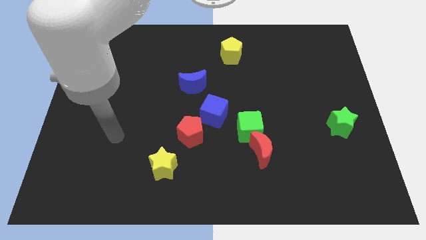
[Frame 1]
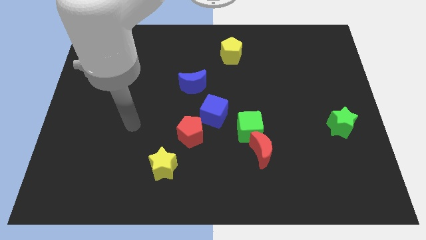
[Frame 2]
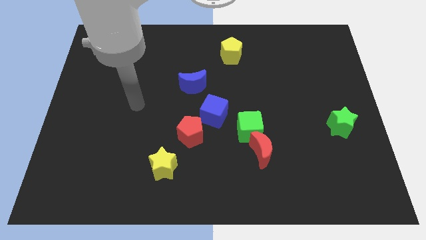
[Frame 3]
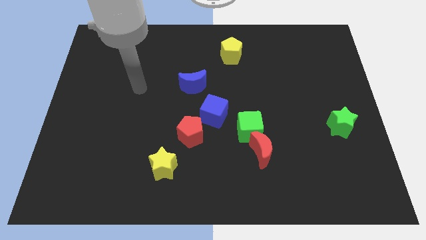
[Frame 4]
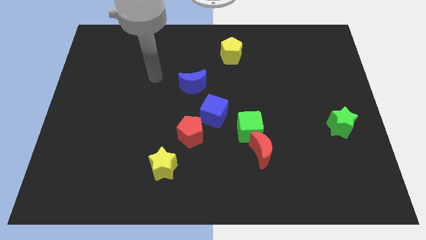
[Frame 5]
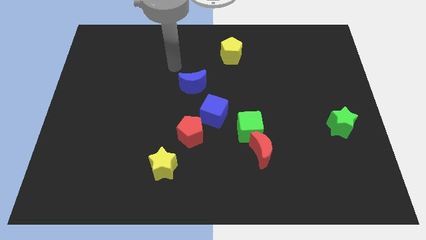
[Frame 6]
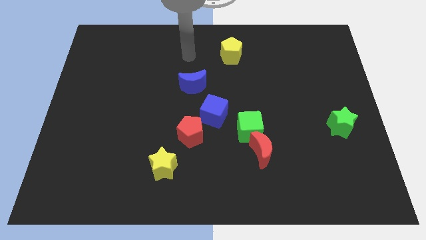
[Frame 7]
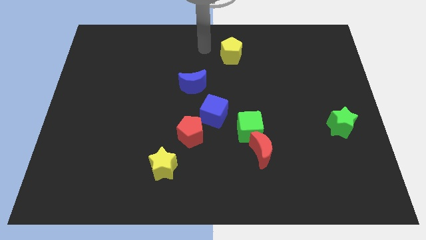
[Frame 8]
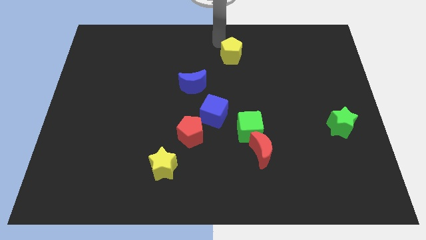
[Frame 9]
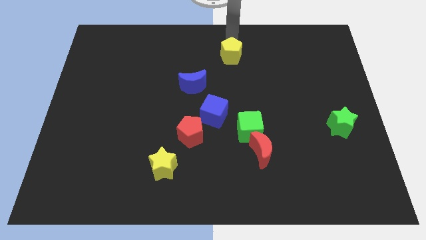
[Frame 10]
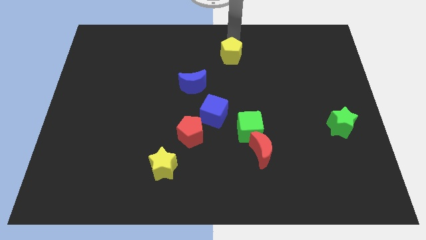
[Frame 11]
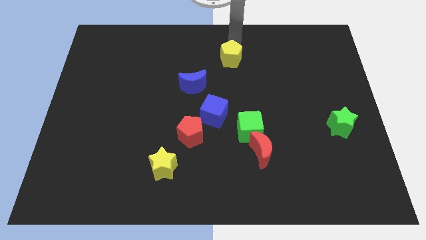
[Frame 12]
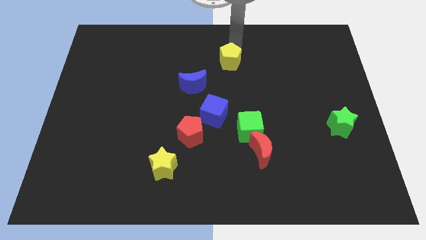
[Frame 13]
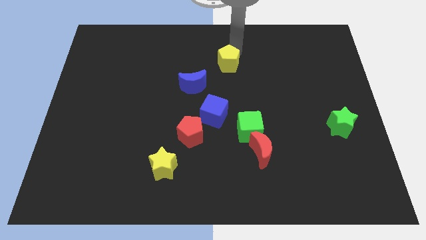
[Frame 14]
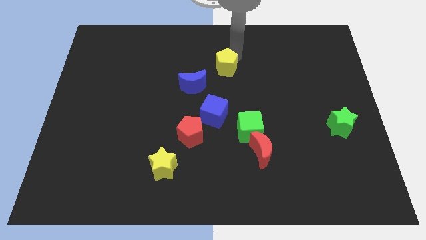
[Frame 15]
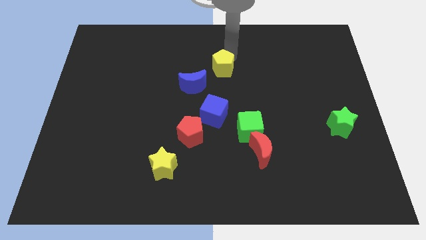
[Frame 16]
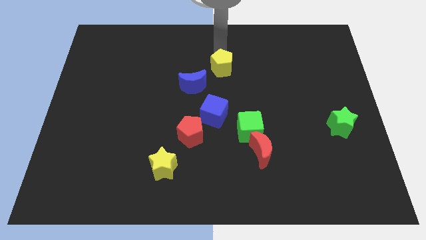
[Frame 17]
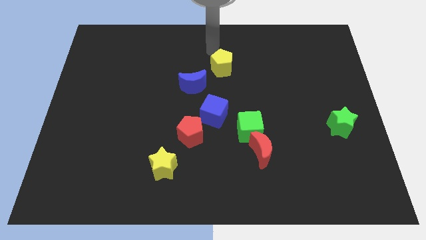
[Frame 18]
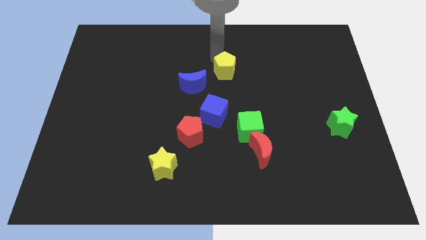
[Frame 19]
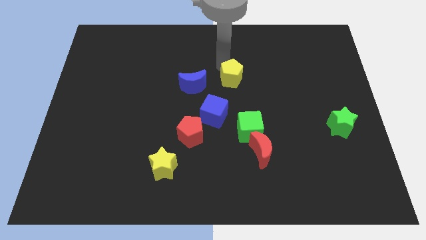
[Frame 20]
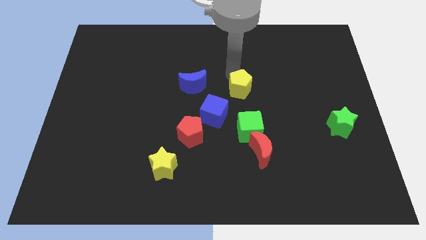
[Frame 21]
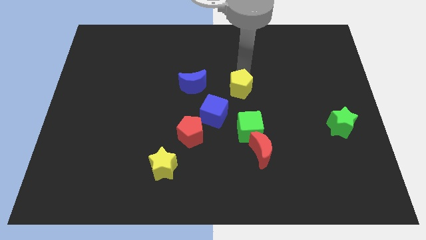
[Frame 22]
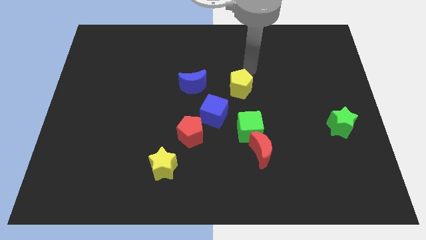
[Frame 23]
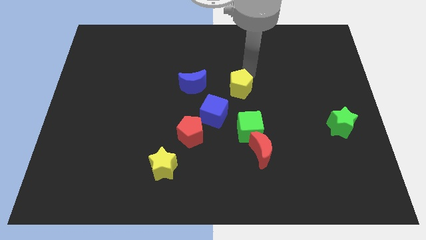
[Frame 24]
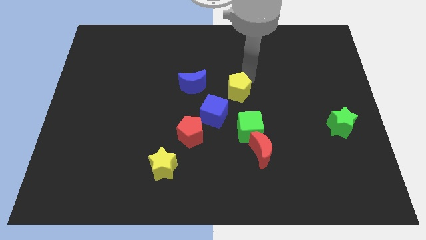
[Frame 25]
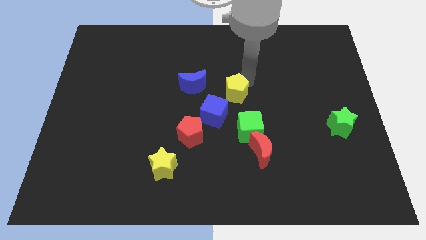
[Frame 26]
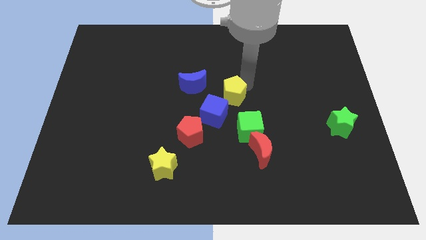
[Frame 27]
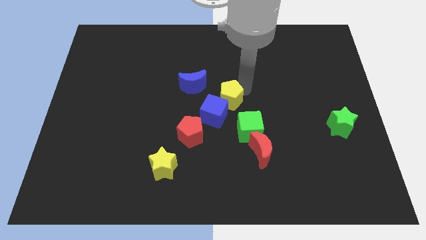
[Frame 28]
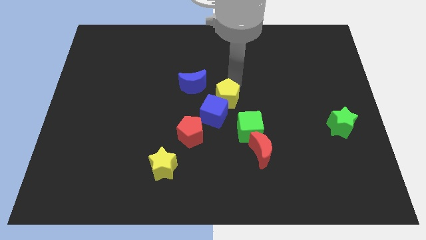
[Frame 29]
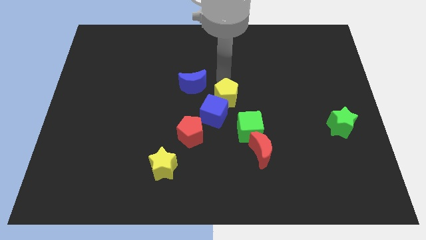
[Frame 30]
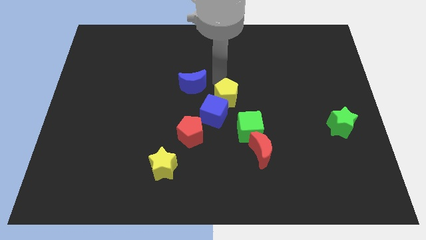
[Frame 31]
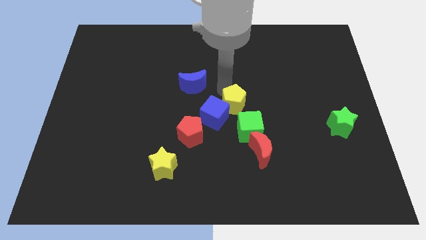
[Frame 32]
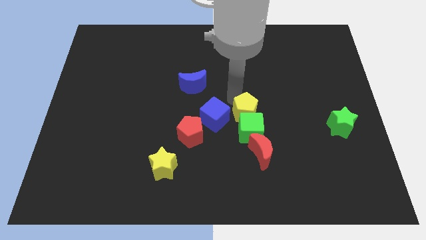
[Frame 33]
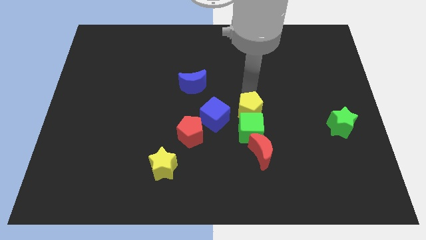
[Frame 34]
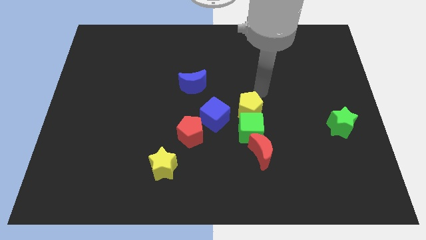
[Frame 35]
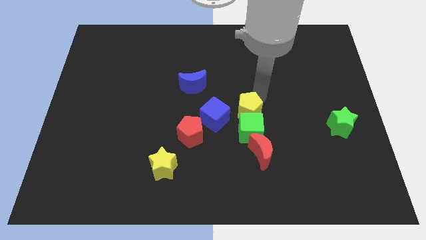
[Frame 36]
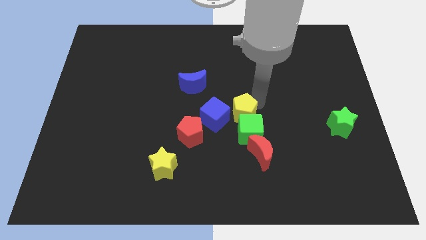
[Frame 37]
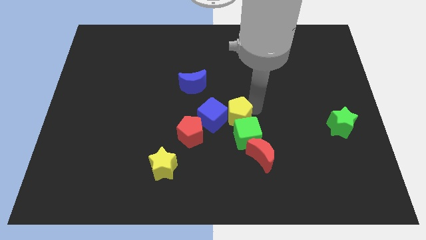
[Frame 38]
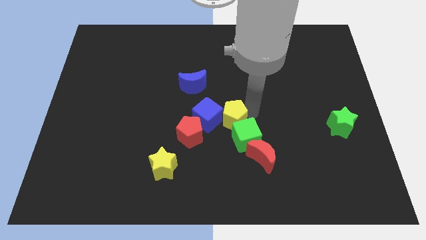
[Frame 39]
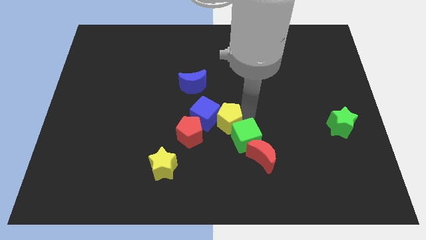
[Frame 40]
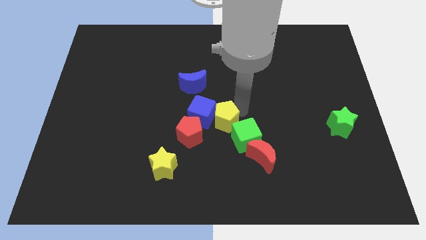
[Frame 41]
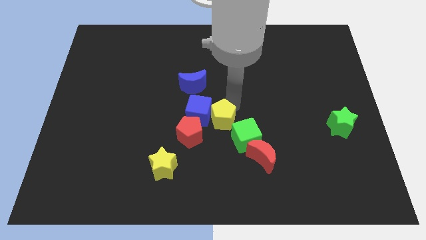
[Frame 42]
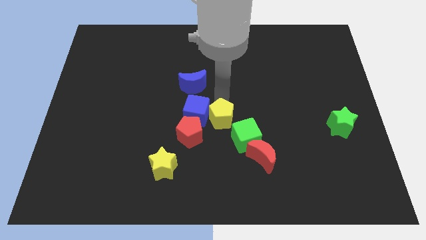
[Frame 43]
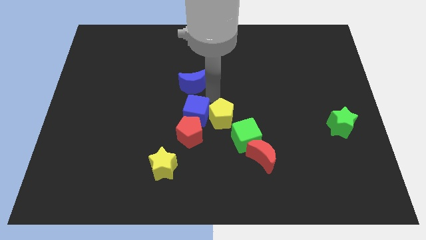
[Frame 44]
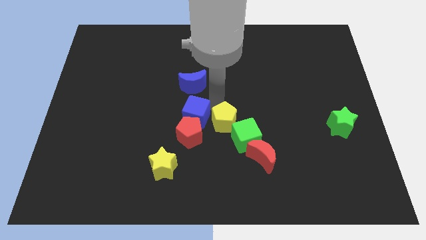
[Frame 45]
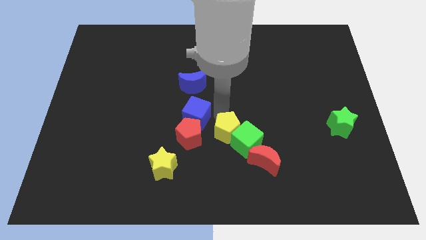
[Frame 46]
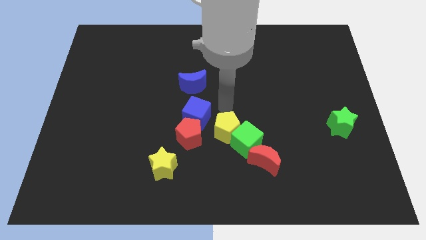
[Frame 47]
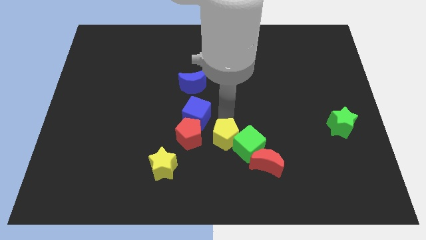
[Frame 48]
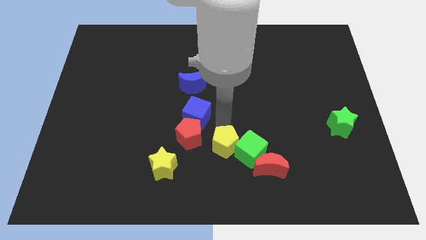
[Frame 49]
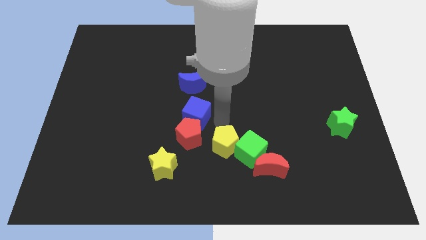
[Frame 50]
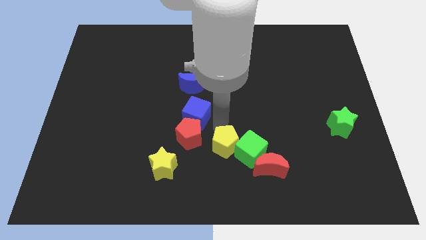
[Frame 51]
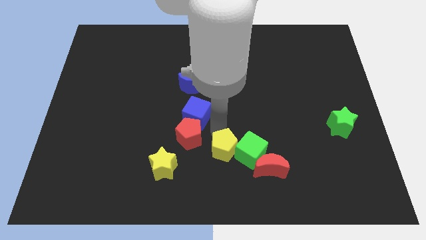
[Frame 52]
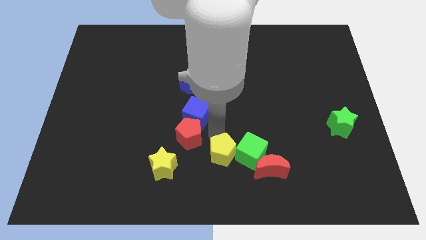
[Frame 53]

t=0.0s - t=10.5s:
slide the yellow pentagon to the bottom
